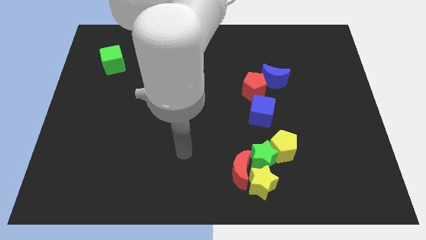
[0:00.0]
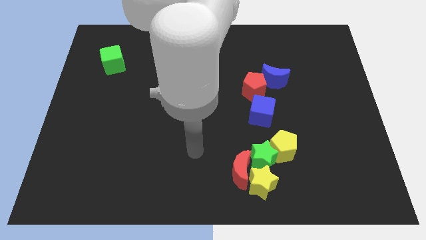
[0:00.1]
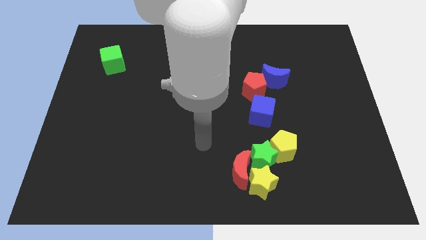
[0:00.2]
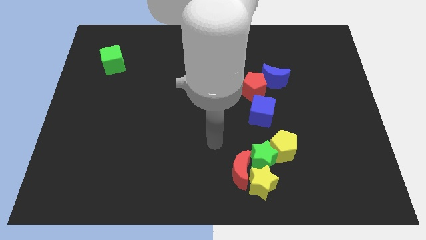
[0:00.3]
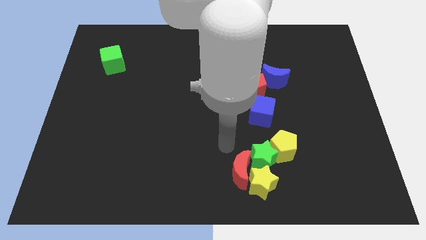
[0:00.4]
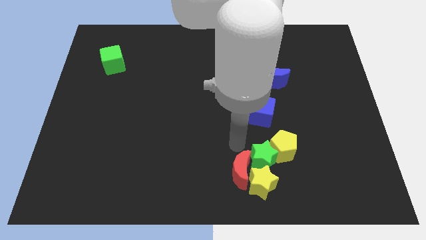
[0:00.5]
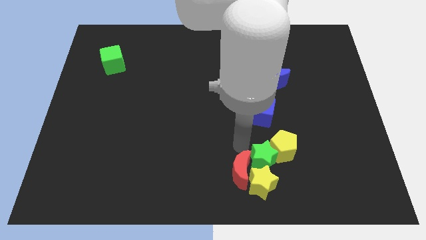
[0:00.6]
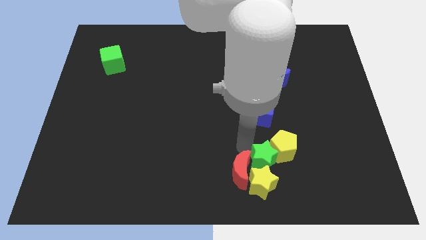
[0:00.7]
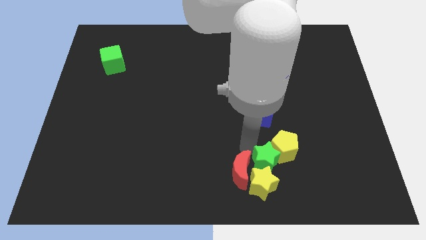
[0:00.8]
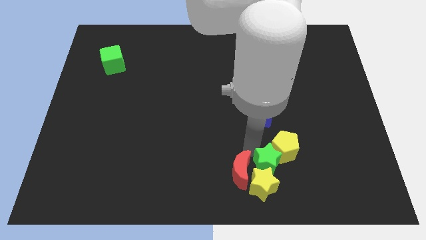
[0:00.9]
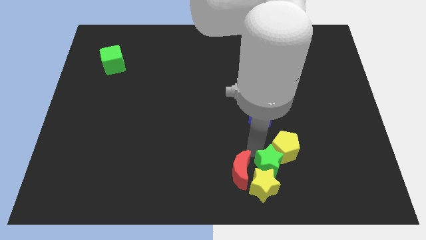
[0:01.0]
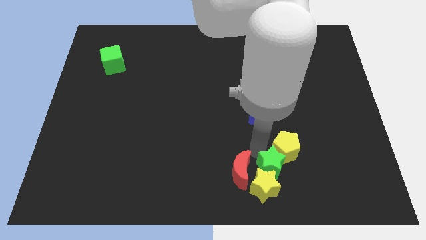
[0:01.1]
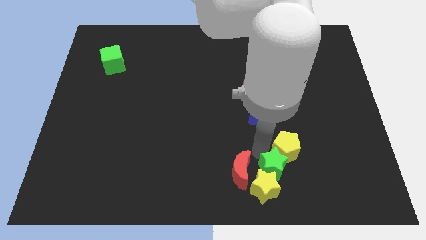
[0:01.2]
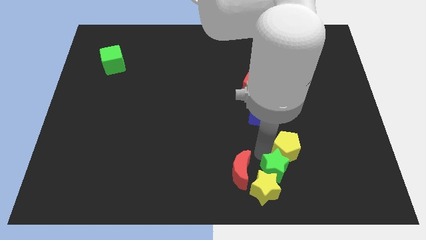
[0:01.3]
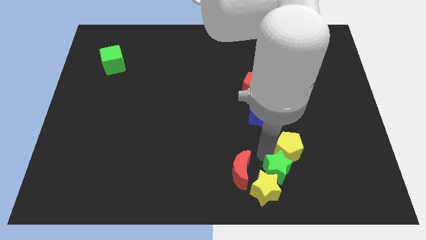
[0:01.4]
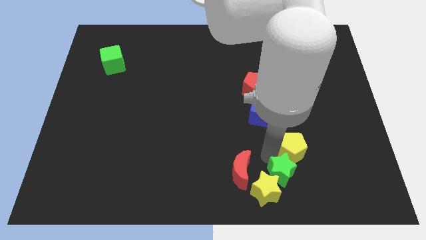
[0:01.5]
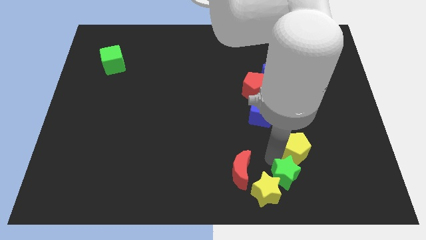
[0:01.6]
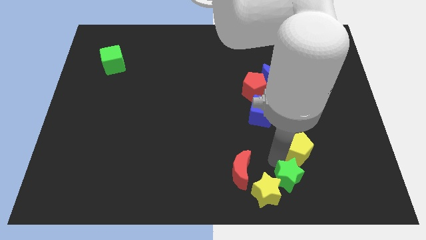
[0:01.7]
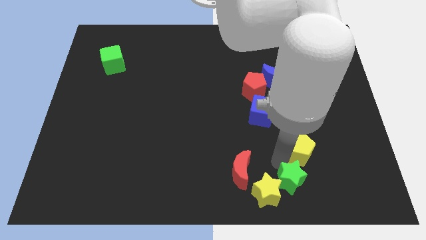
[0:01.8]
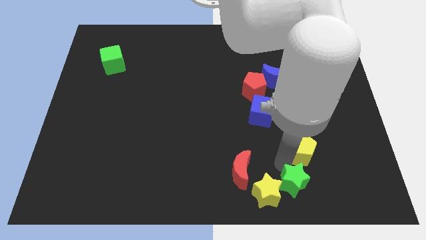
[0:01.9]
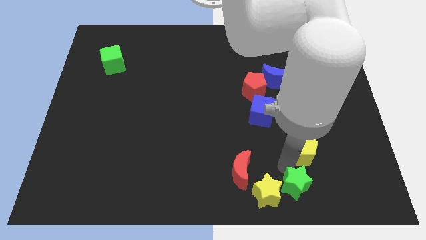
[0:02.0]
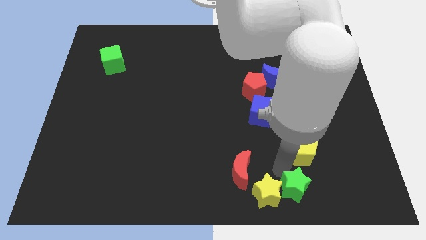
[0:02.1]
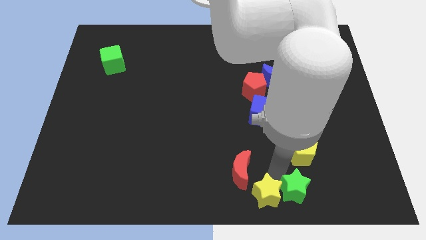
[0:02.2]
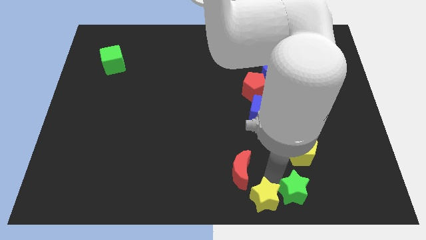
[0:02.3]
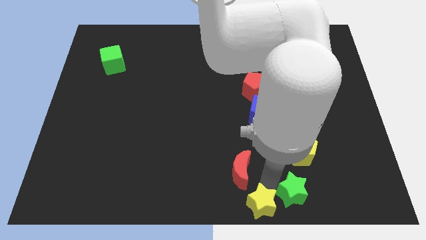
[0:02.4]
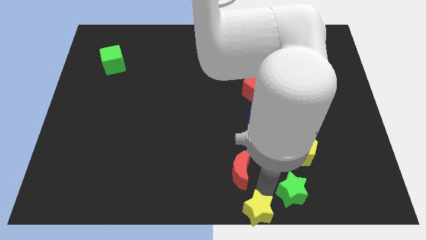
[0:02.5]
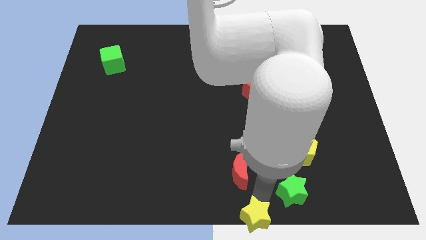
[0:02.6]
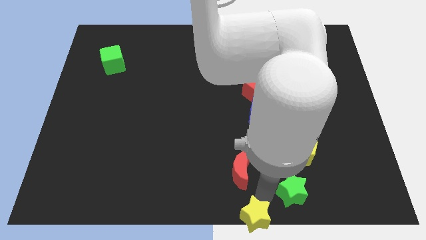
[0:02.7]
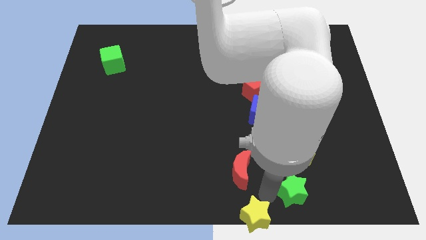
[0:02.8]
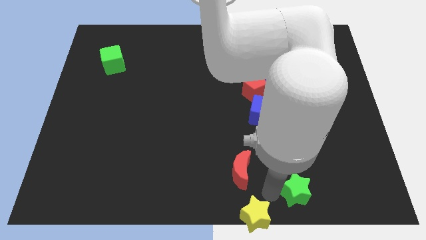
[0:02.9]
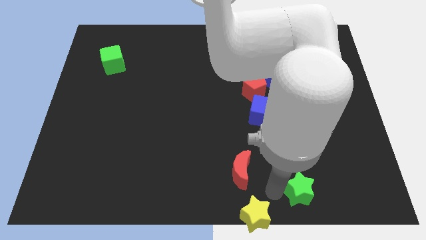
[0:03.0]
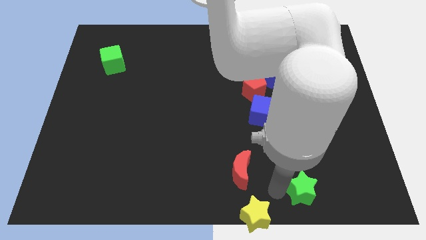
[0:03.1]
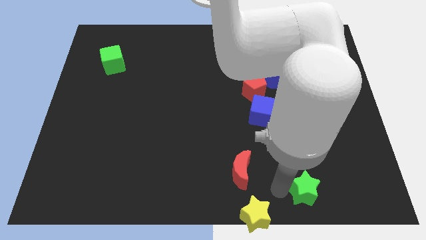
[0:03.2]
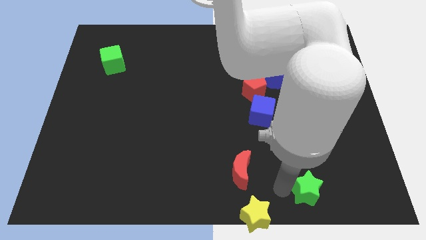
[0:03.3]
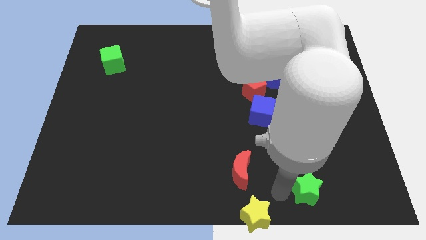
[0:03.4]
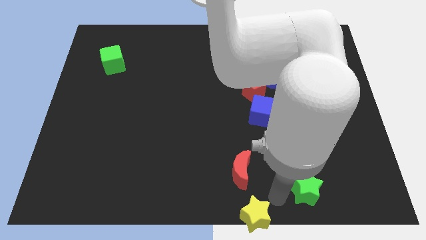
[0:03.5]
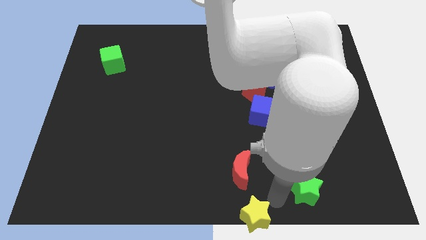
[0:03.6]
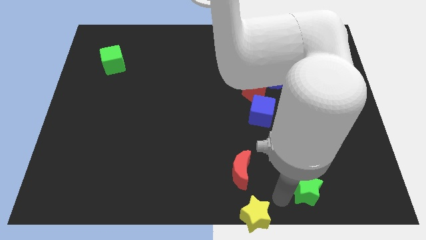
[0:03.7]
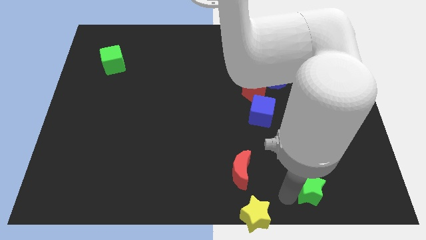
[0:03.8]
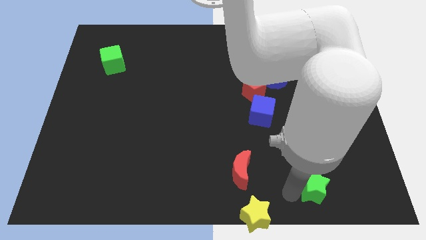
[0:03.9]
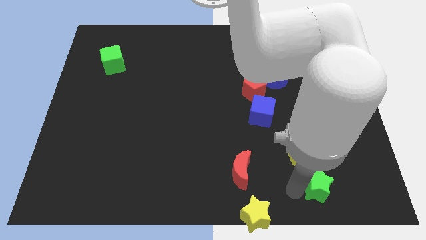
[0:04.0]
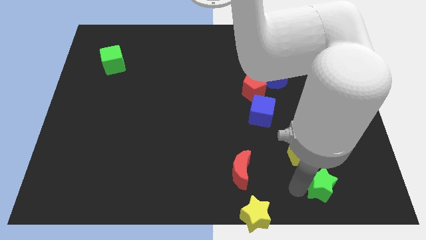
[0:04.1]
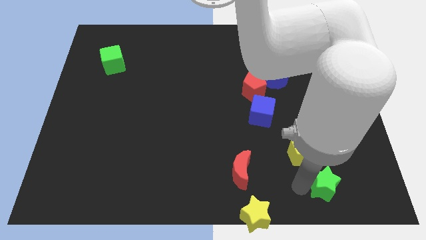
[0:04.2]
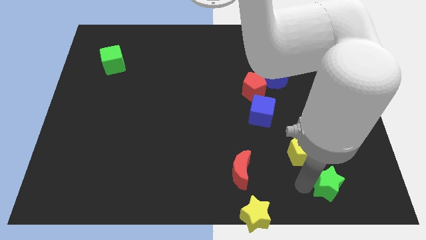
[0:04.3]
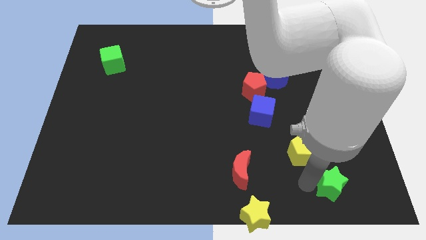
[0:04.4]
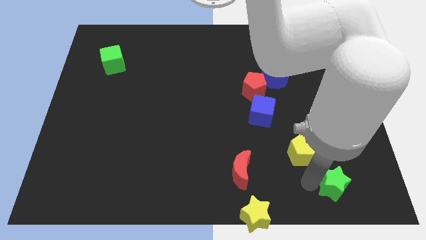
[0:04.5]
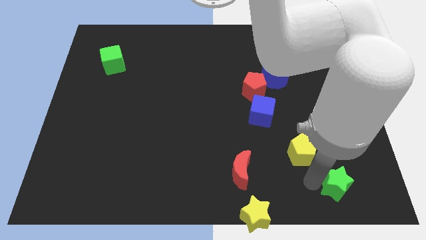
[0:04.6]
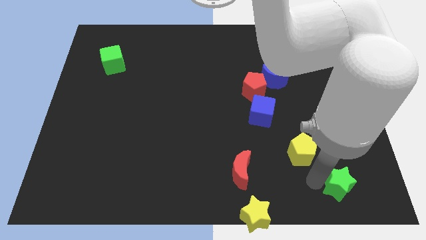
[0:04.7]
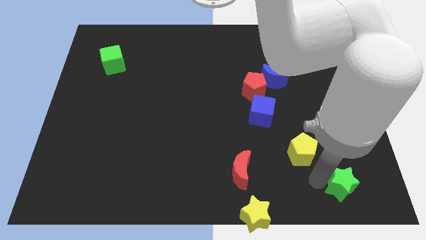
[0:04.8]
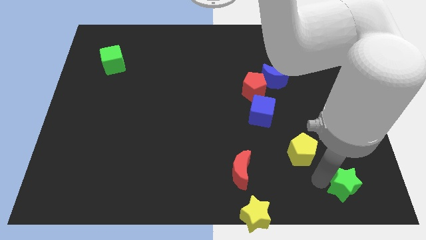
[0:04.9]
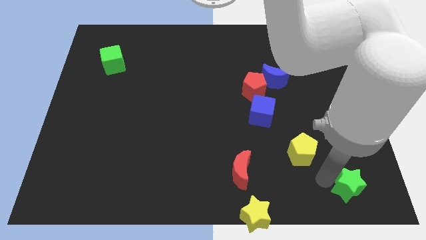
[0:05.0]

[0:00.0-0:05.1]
put the green star to the lower right corner

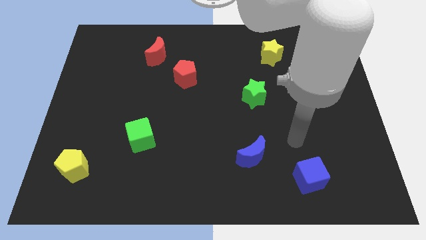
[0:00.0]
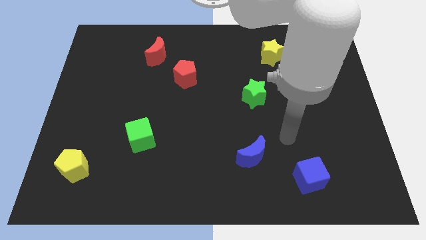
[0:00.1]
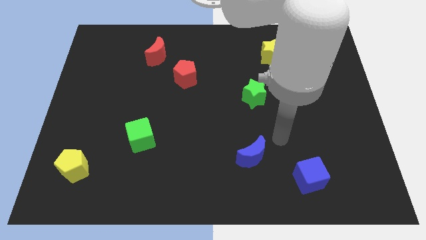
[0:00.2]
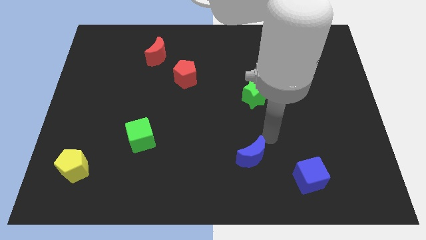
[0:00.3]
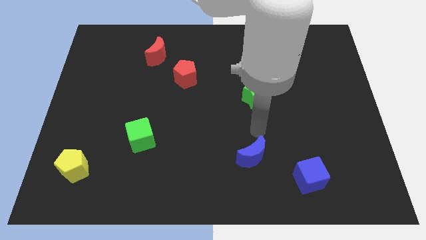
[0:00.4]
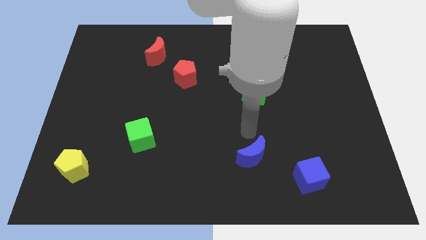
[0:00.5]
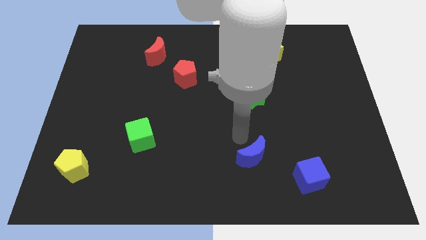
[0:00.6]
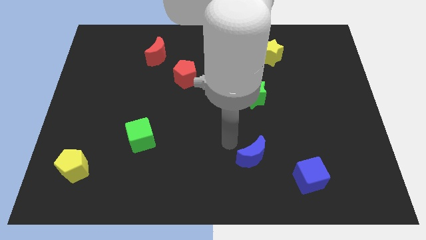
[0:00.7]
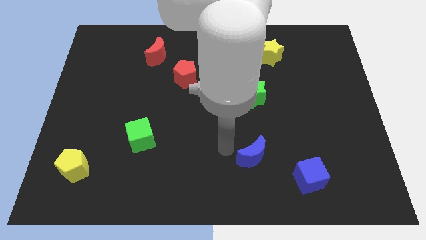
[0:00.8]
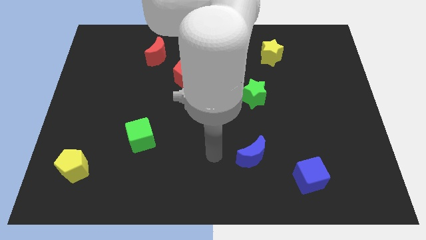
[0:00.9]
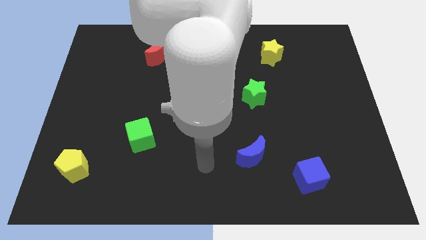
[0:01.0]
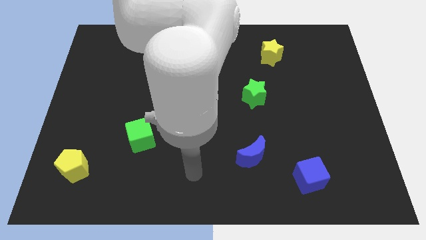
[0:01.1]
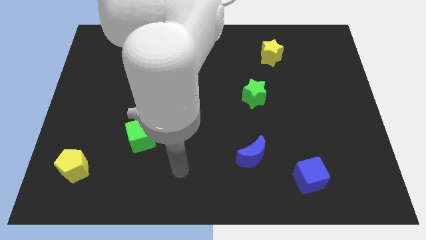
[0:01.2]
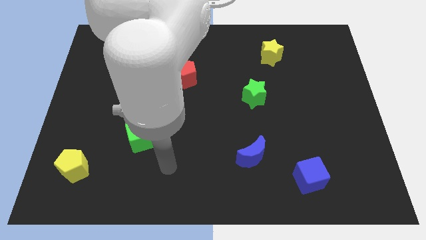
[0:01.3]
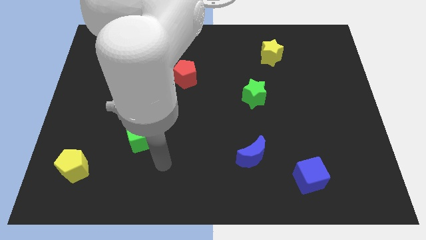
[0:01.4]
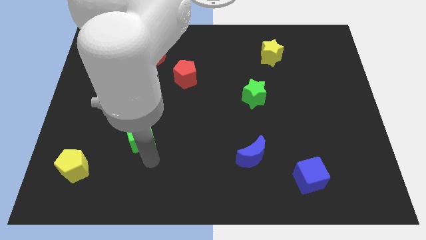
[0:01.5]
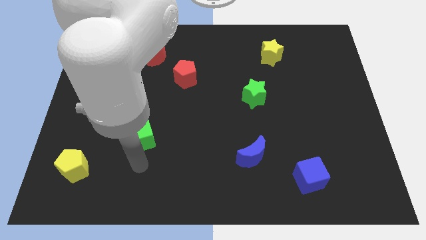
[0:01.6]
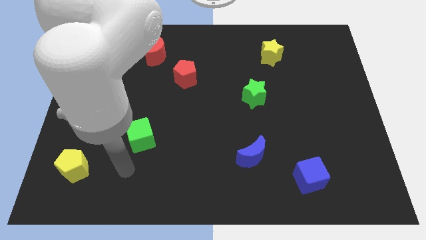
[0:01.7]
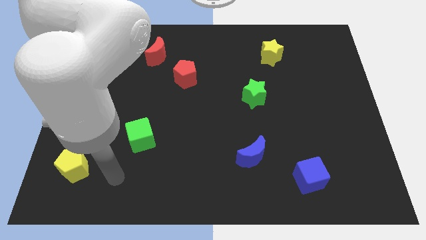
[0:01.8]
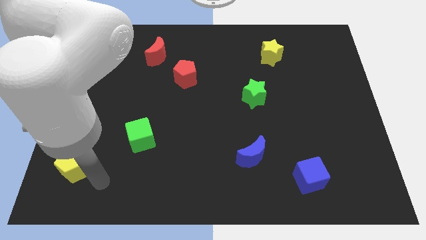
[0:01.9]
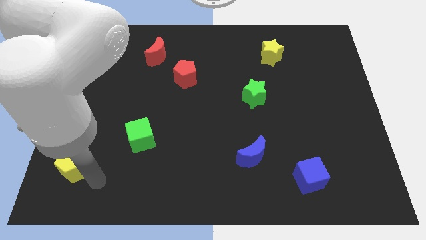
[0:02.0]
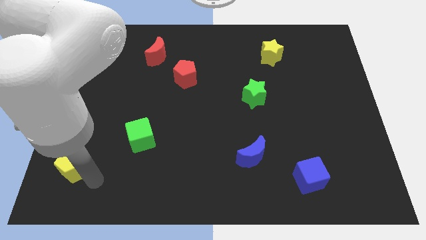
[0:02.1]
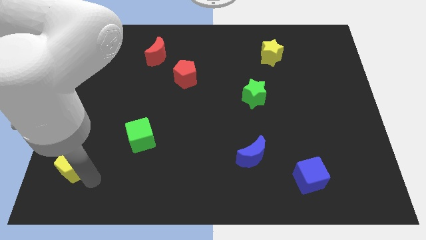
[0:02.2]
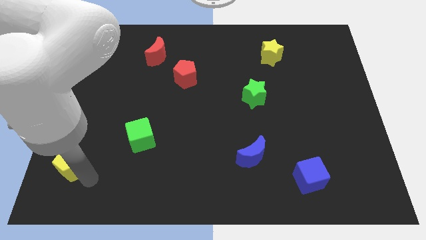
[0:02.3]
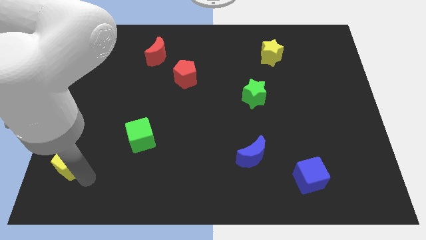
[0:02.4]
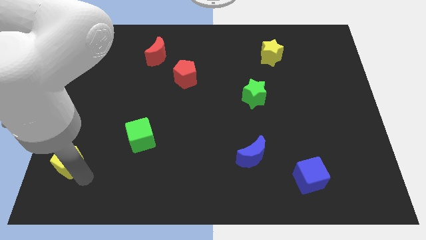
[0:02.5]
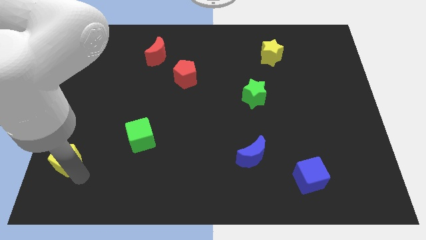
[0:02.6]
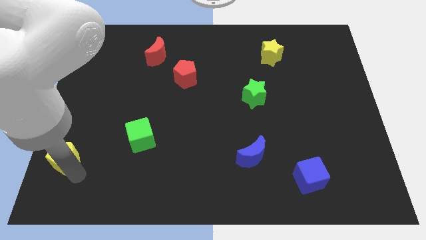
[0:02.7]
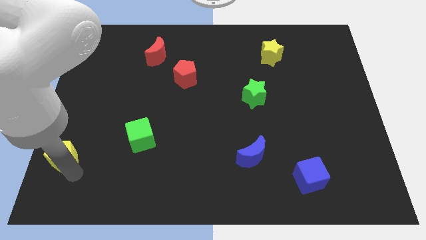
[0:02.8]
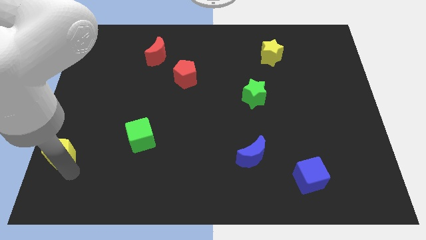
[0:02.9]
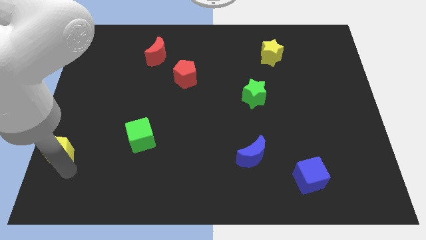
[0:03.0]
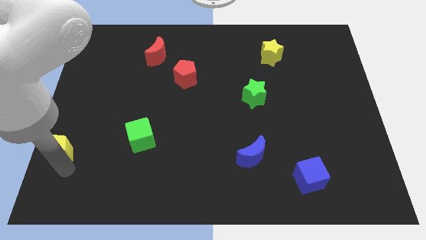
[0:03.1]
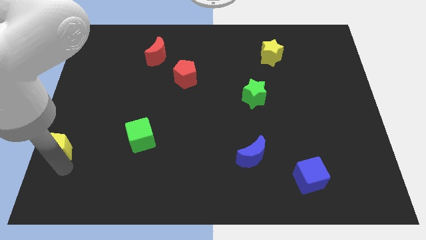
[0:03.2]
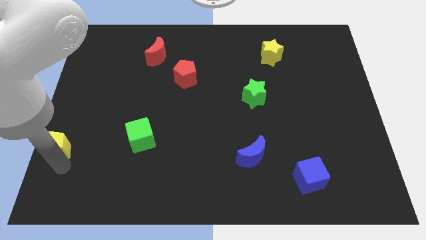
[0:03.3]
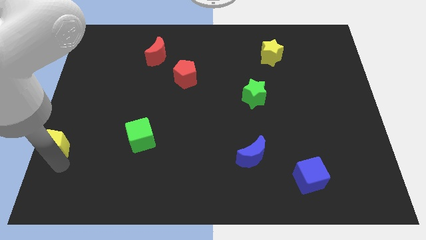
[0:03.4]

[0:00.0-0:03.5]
push the yellow pentagon to the center left
